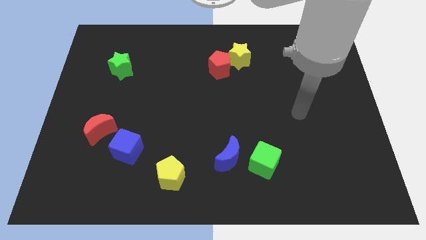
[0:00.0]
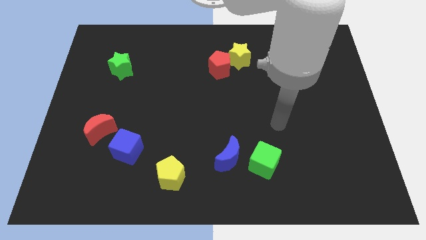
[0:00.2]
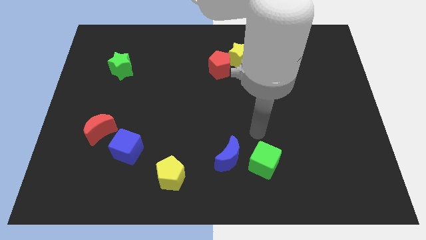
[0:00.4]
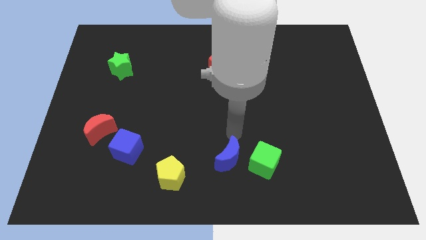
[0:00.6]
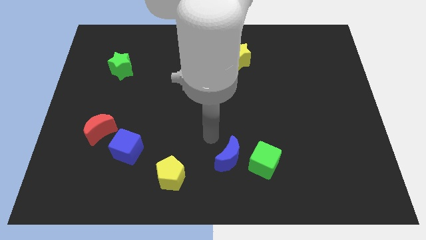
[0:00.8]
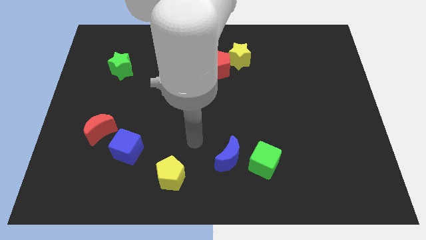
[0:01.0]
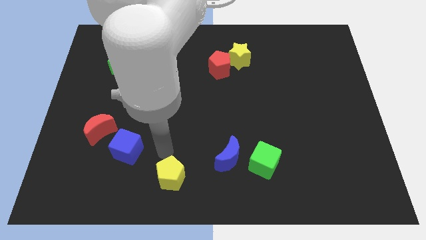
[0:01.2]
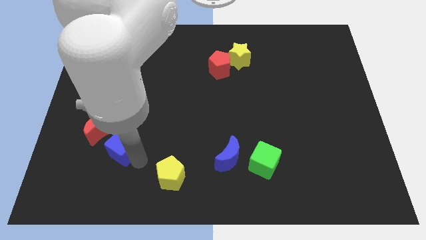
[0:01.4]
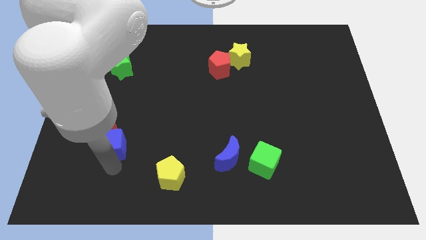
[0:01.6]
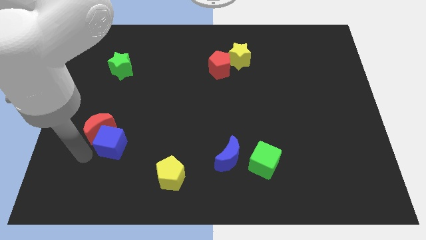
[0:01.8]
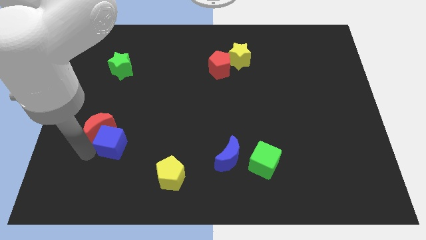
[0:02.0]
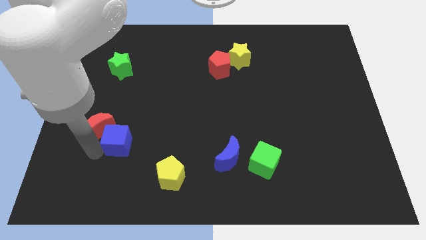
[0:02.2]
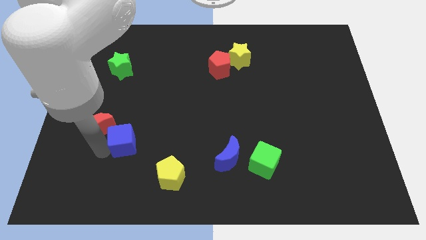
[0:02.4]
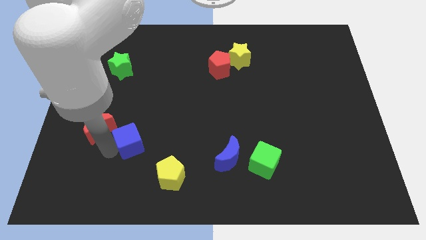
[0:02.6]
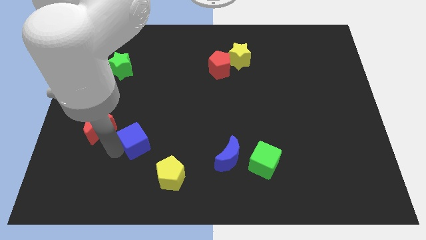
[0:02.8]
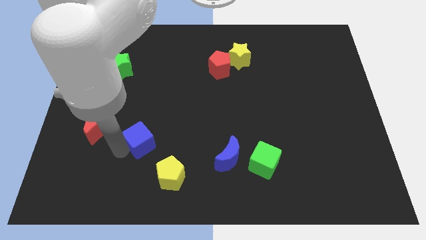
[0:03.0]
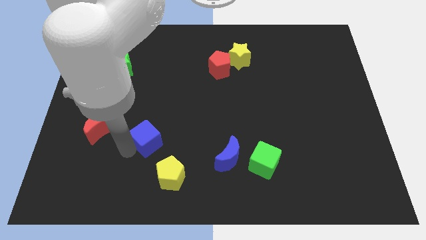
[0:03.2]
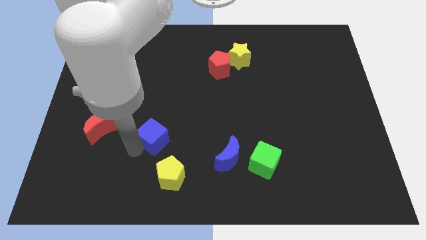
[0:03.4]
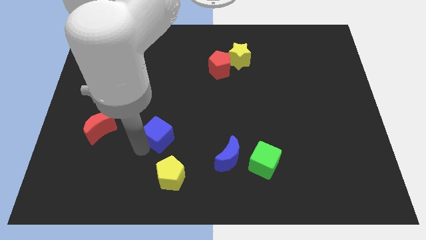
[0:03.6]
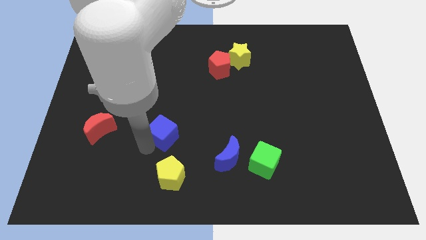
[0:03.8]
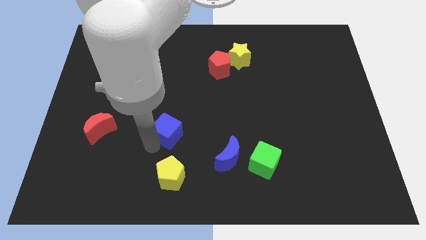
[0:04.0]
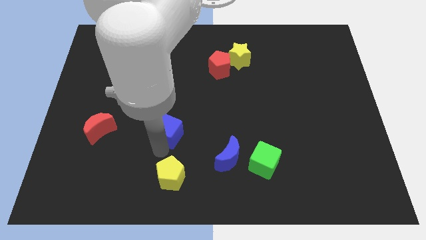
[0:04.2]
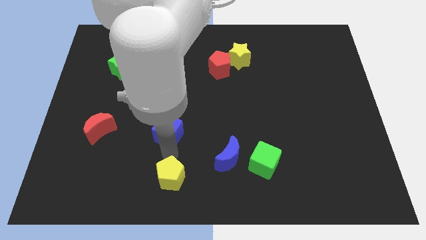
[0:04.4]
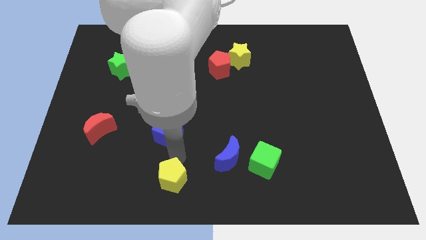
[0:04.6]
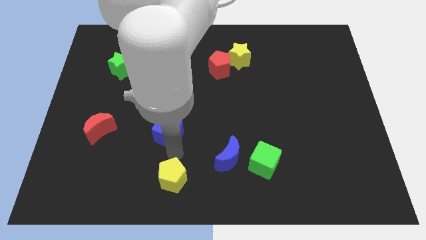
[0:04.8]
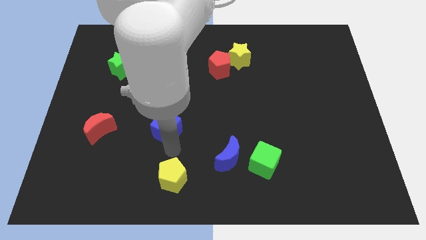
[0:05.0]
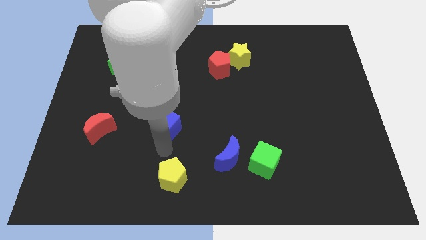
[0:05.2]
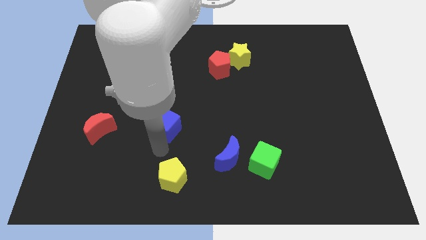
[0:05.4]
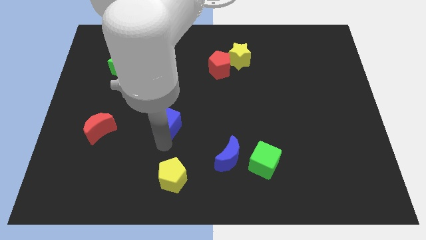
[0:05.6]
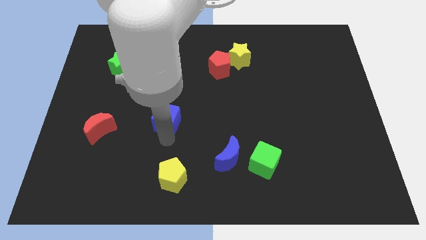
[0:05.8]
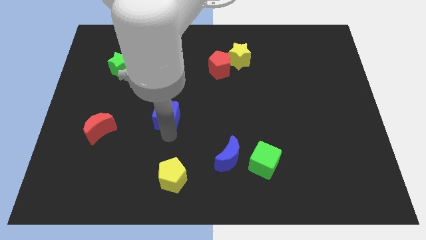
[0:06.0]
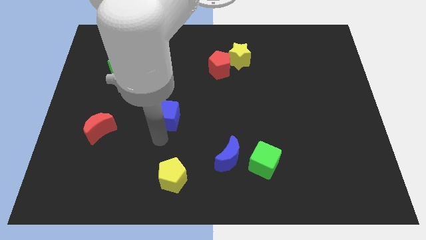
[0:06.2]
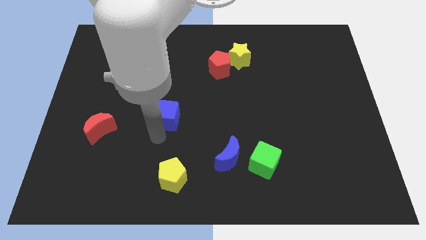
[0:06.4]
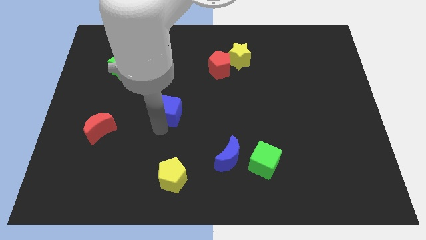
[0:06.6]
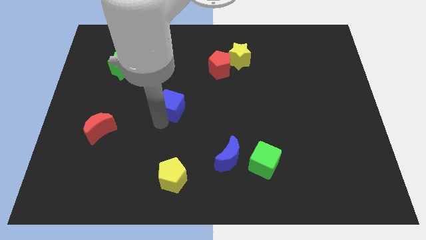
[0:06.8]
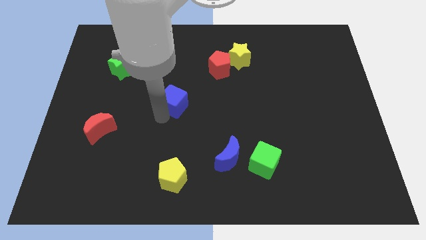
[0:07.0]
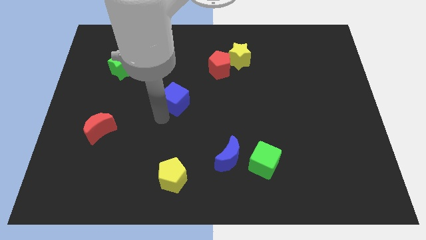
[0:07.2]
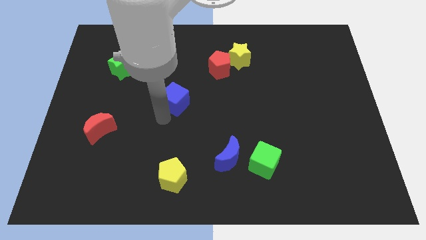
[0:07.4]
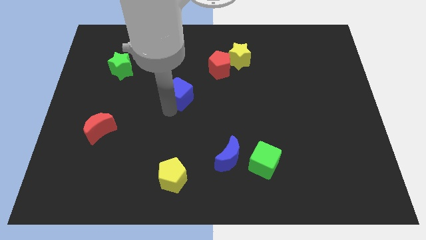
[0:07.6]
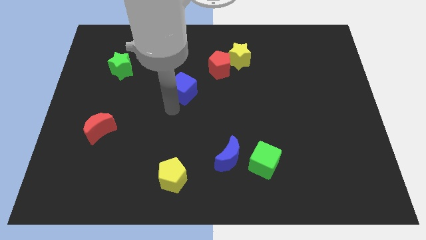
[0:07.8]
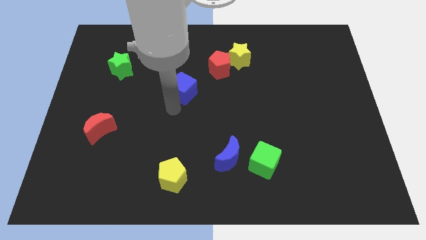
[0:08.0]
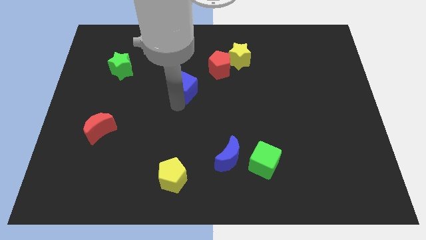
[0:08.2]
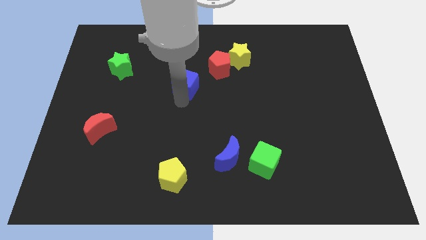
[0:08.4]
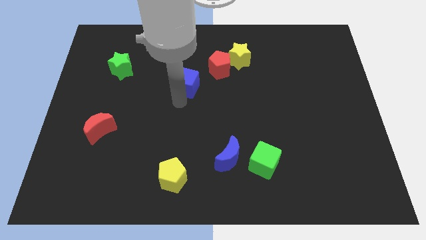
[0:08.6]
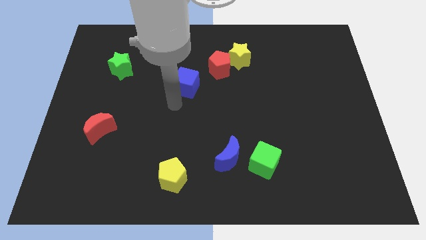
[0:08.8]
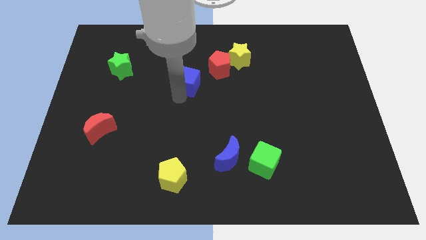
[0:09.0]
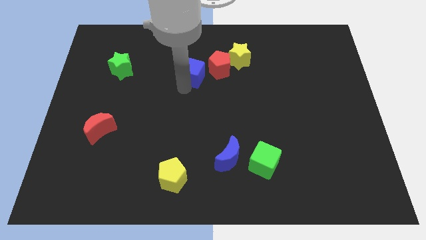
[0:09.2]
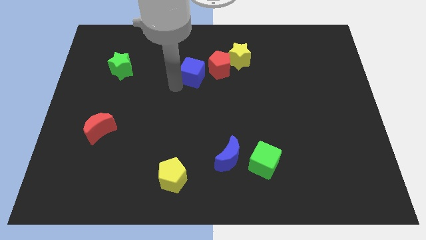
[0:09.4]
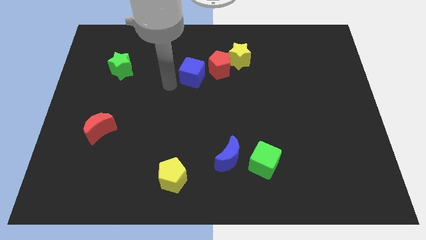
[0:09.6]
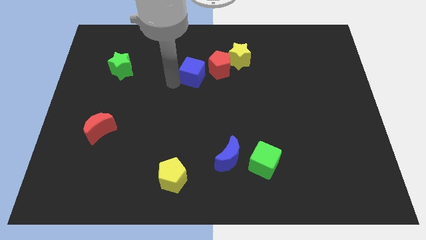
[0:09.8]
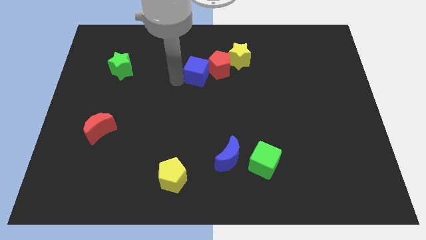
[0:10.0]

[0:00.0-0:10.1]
move the blue cube next to the red pentagon

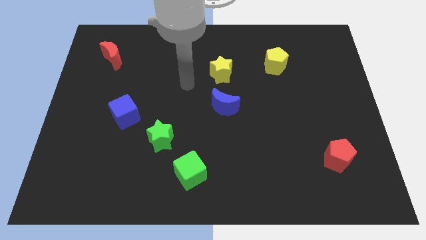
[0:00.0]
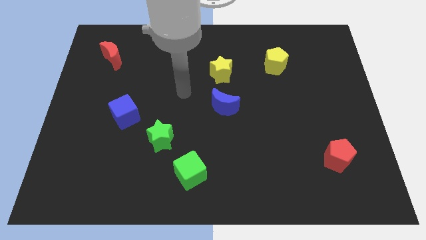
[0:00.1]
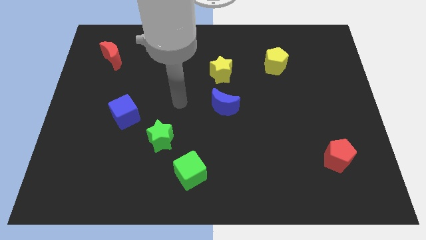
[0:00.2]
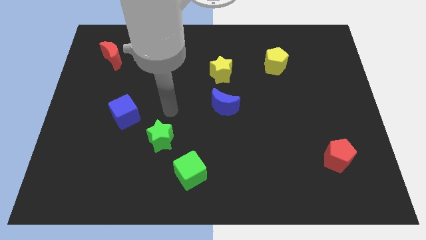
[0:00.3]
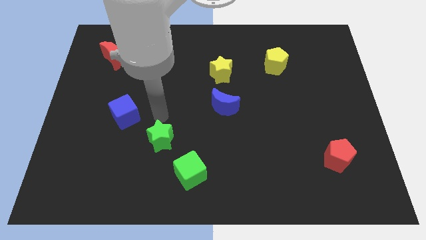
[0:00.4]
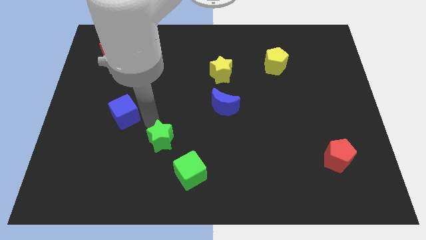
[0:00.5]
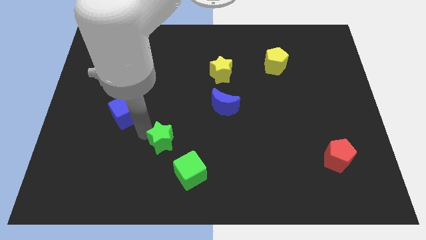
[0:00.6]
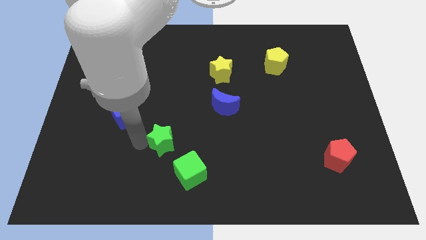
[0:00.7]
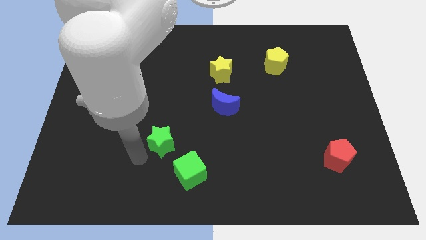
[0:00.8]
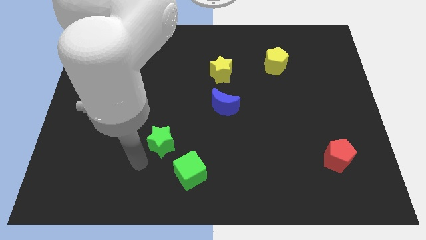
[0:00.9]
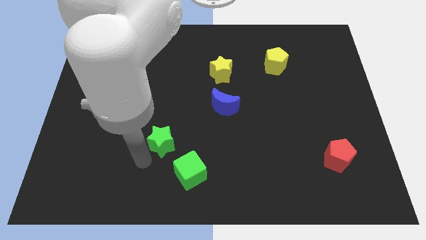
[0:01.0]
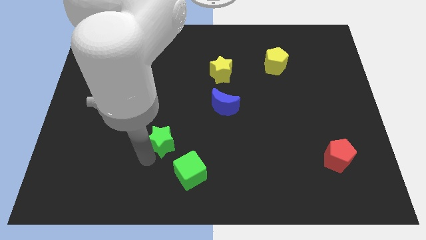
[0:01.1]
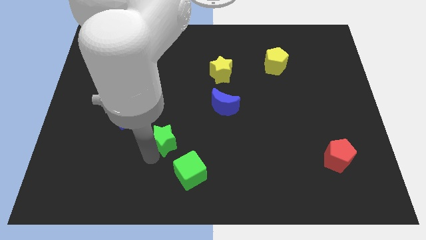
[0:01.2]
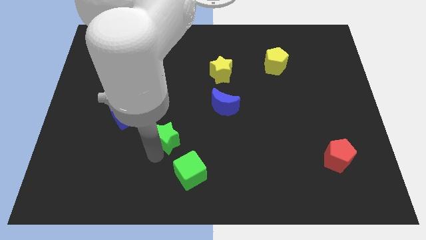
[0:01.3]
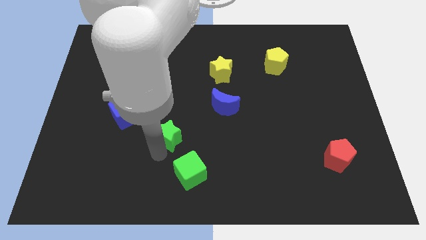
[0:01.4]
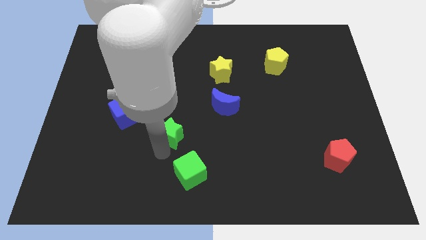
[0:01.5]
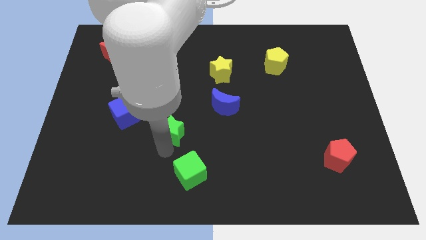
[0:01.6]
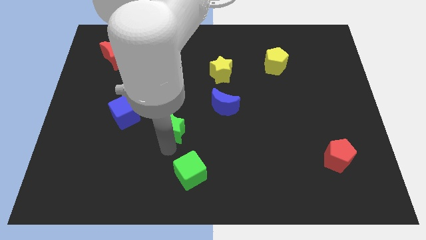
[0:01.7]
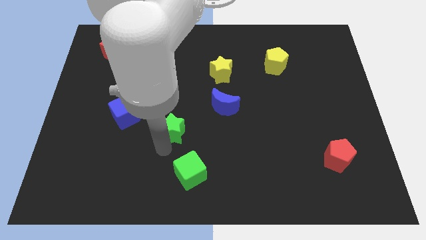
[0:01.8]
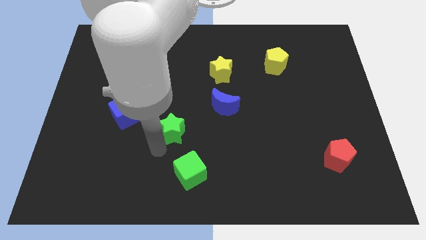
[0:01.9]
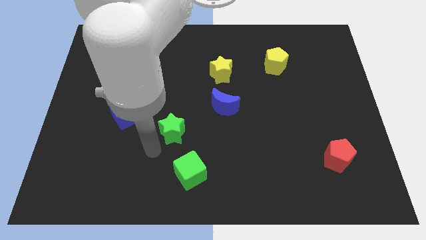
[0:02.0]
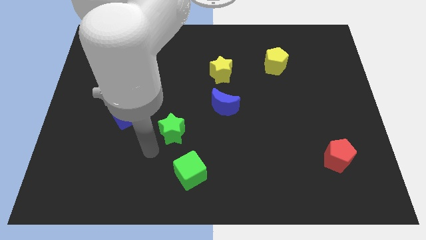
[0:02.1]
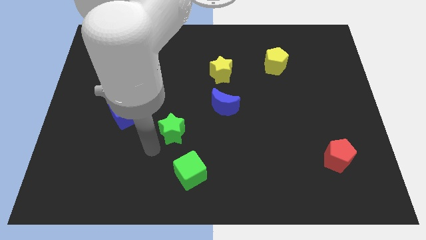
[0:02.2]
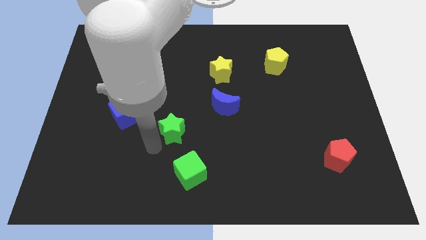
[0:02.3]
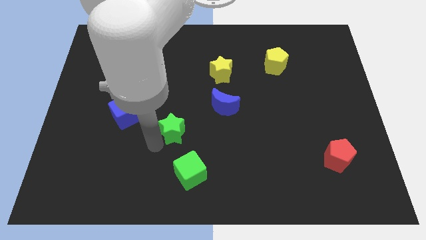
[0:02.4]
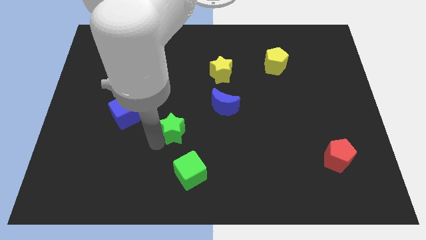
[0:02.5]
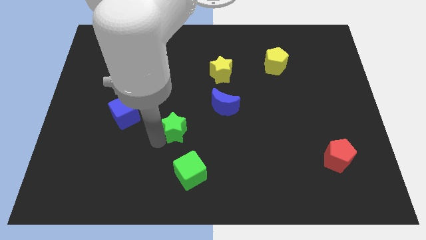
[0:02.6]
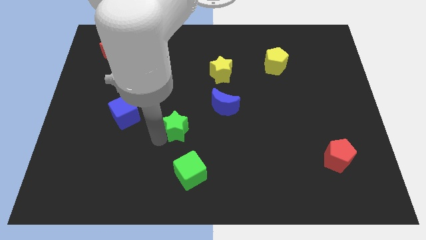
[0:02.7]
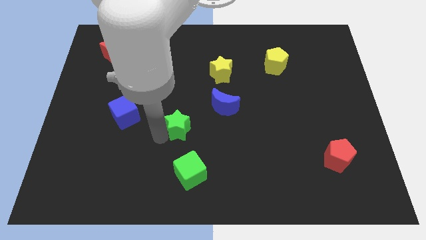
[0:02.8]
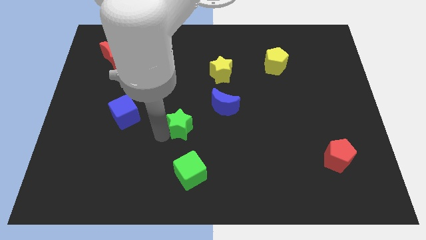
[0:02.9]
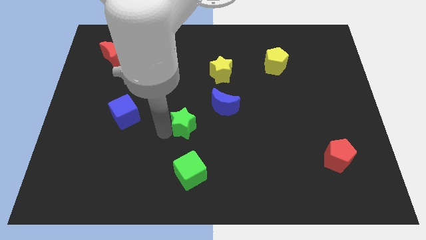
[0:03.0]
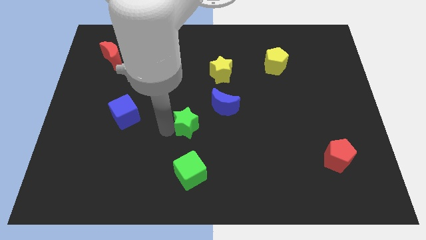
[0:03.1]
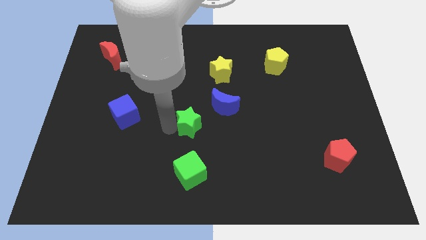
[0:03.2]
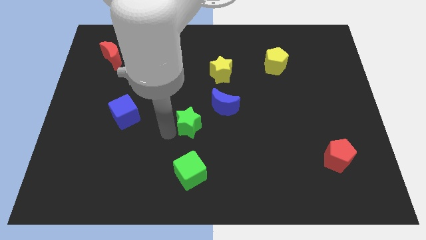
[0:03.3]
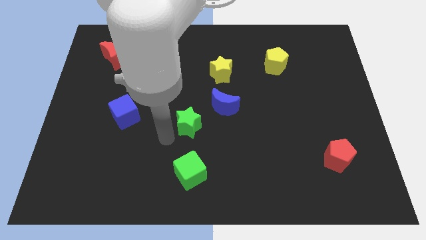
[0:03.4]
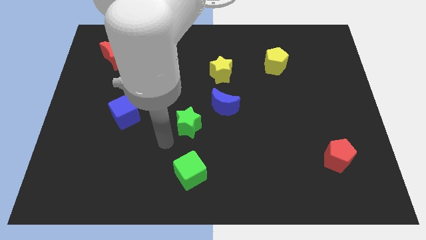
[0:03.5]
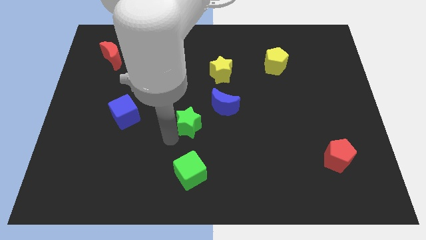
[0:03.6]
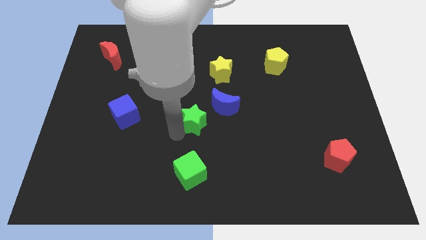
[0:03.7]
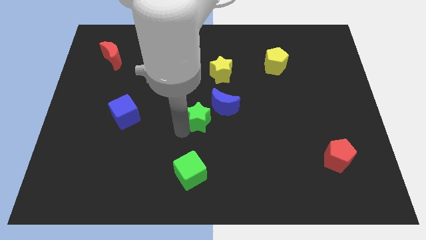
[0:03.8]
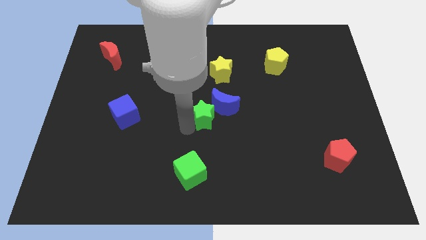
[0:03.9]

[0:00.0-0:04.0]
push the green star next to the blue moon
